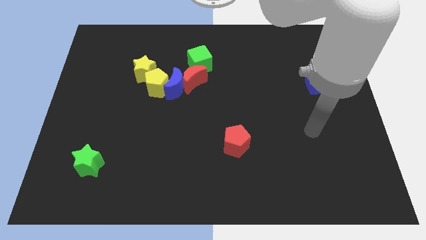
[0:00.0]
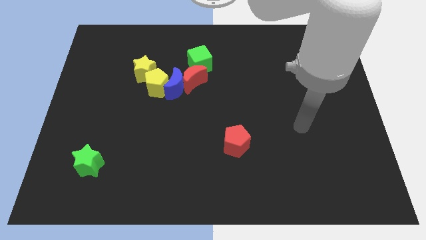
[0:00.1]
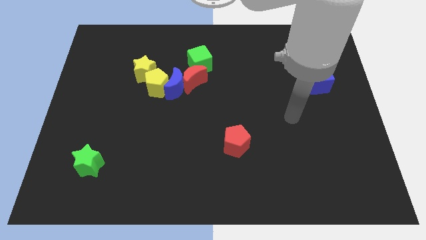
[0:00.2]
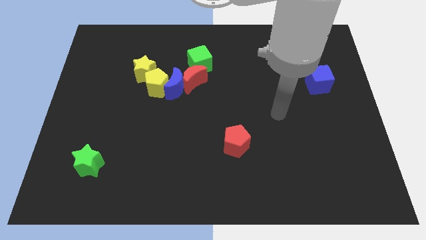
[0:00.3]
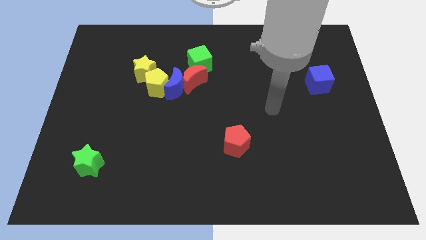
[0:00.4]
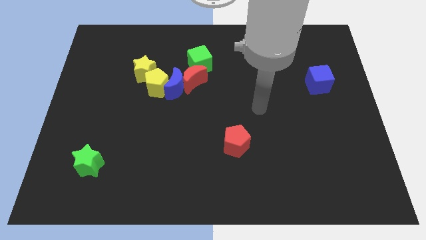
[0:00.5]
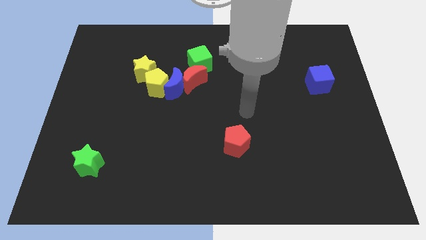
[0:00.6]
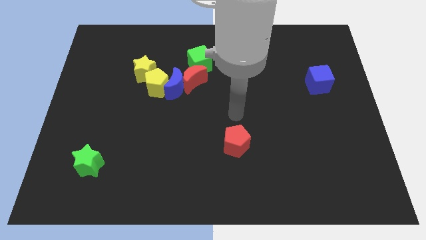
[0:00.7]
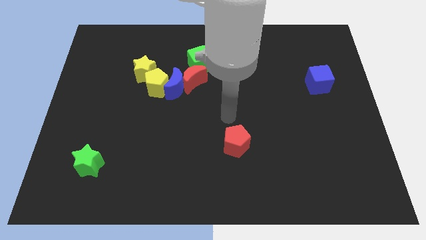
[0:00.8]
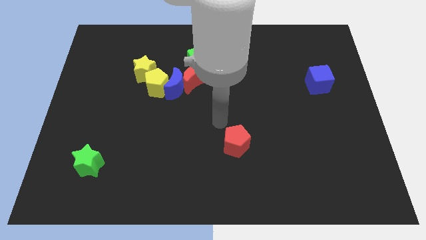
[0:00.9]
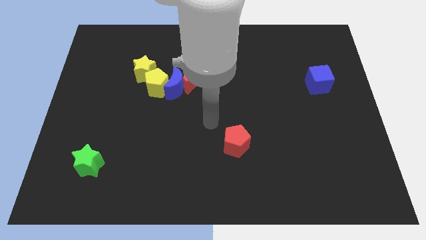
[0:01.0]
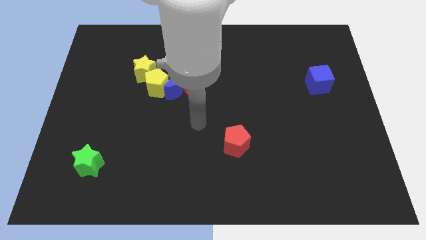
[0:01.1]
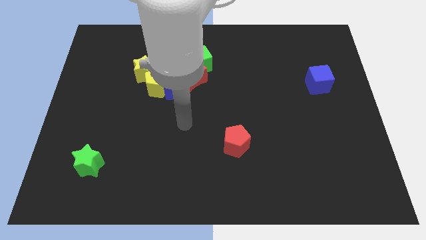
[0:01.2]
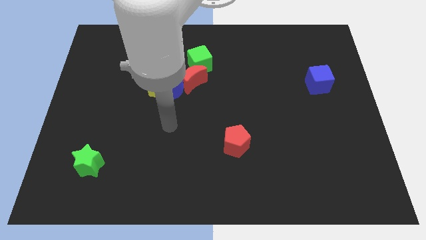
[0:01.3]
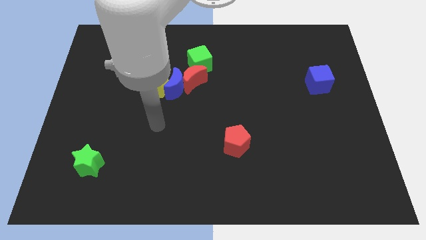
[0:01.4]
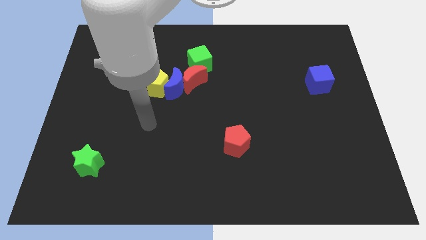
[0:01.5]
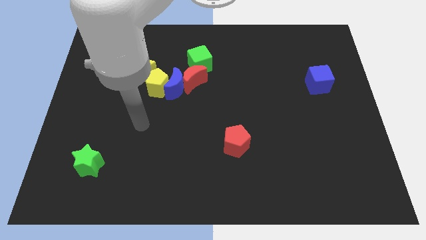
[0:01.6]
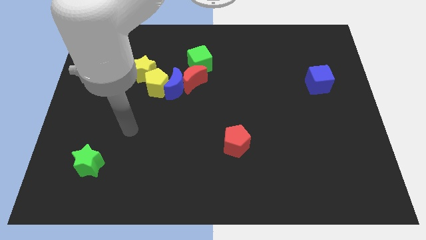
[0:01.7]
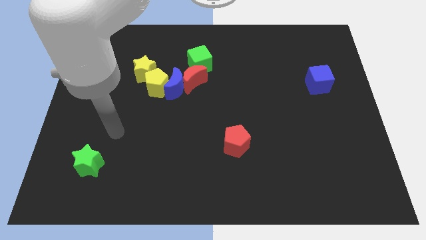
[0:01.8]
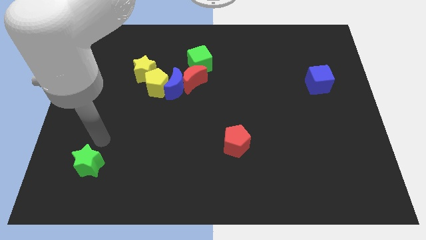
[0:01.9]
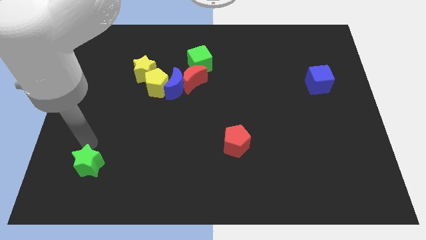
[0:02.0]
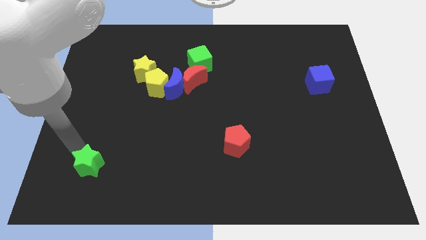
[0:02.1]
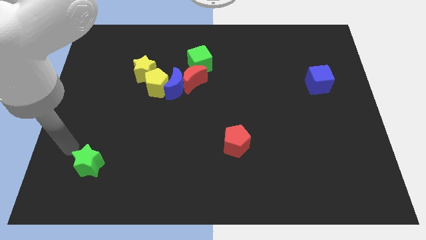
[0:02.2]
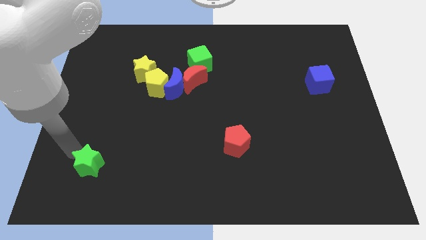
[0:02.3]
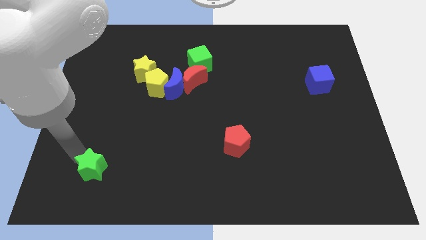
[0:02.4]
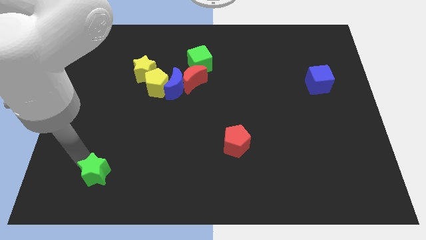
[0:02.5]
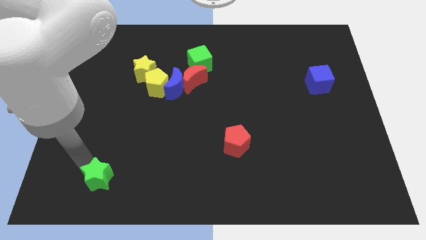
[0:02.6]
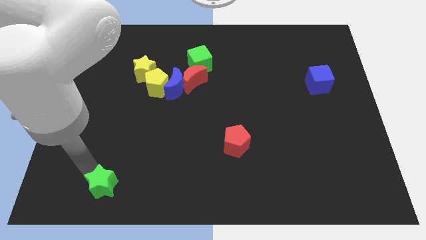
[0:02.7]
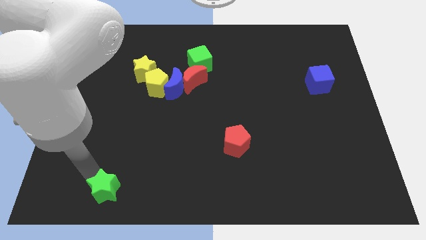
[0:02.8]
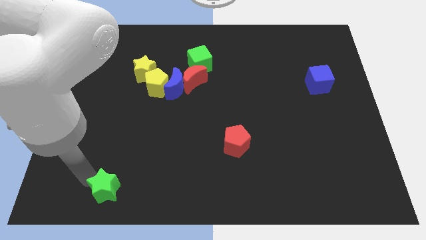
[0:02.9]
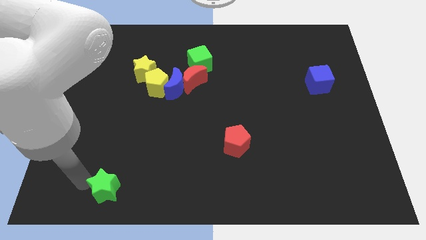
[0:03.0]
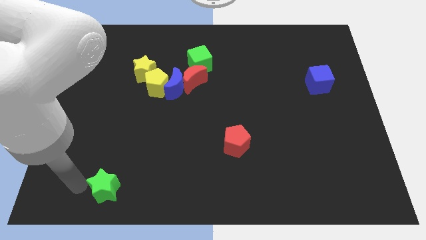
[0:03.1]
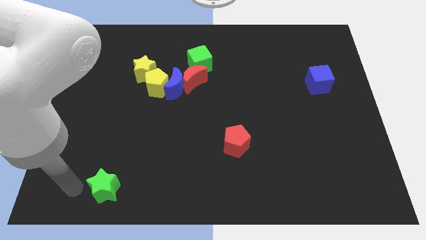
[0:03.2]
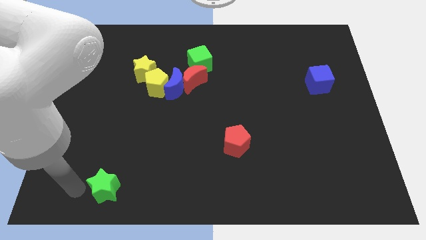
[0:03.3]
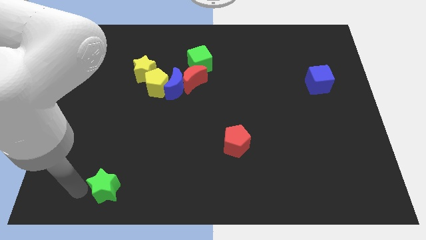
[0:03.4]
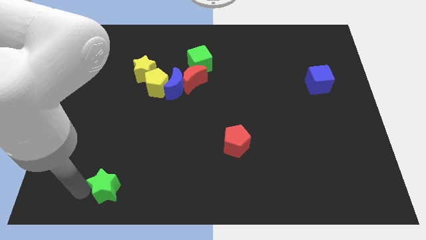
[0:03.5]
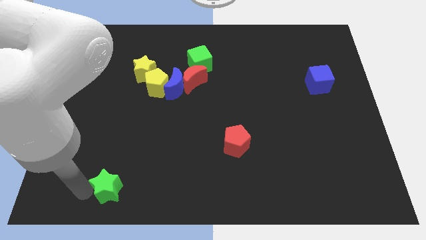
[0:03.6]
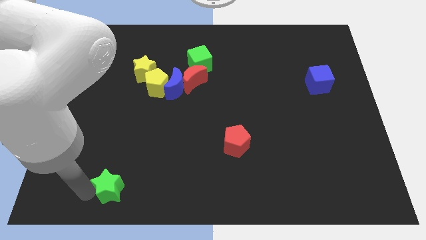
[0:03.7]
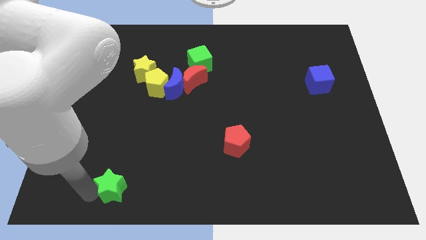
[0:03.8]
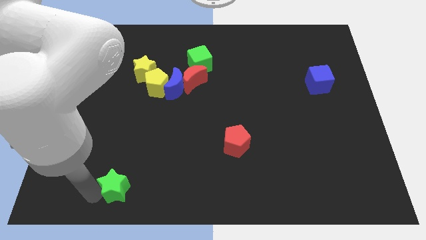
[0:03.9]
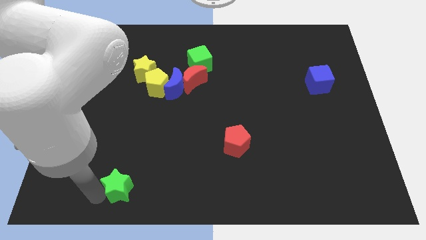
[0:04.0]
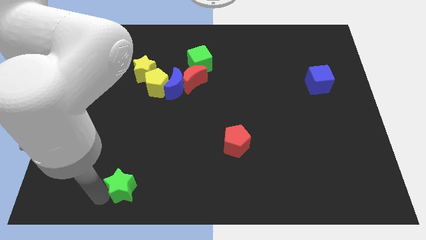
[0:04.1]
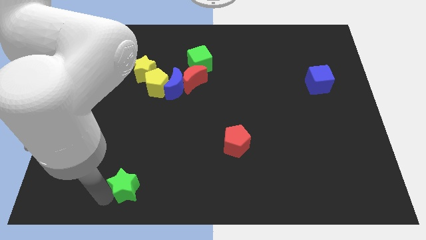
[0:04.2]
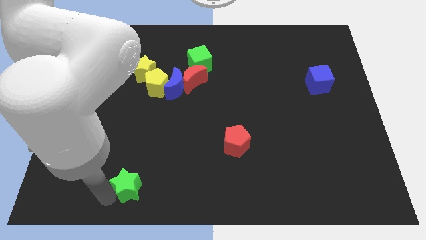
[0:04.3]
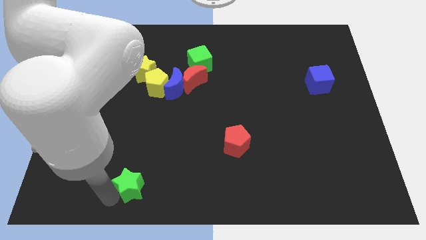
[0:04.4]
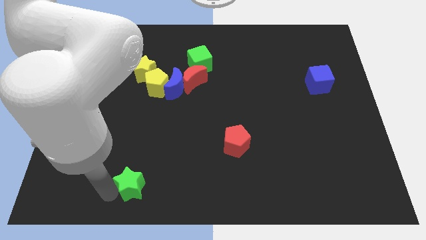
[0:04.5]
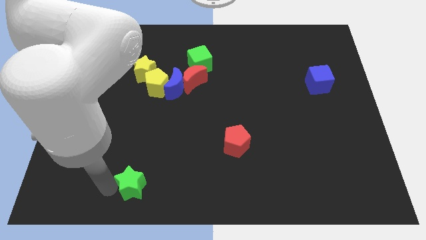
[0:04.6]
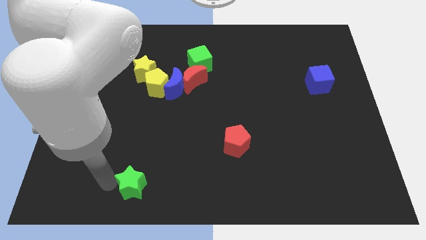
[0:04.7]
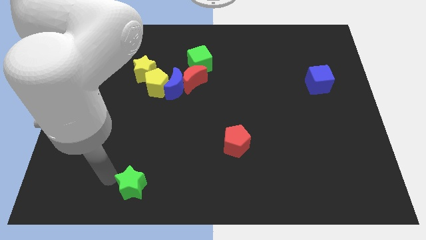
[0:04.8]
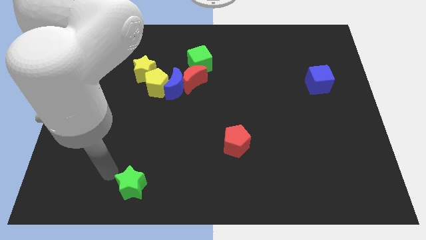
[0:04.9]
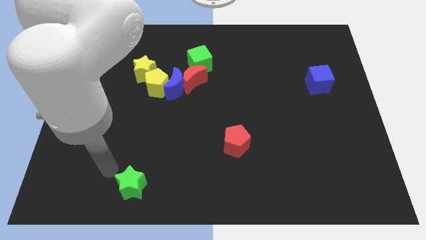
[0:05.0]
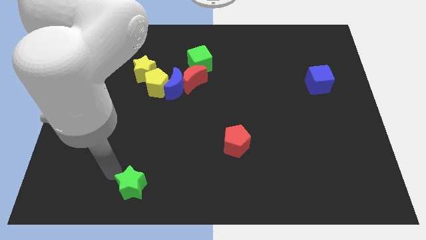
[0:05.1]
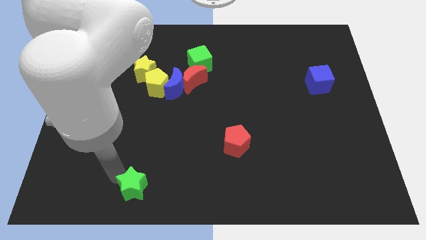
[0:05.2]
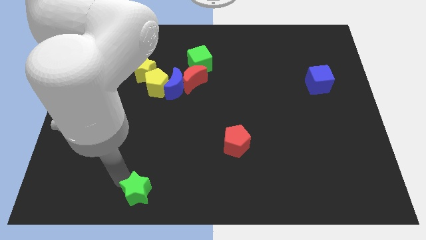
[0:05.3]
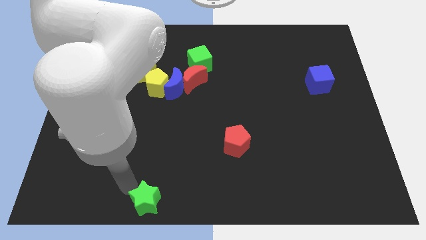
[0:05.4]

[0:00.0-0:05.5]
slide the green star to the bottom side

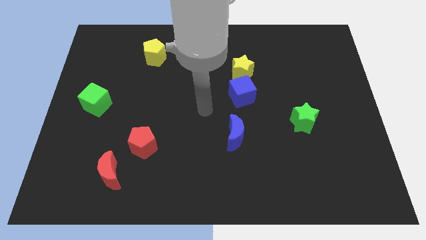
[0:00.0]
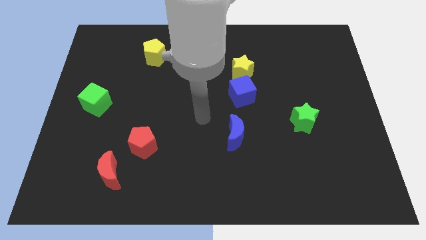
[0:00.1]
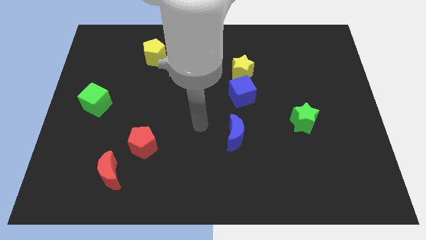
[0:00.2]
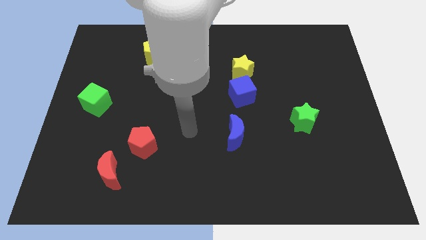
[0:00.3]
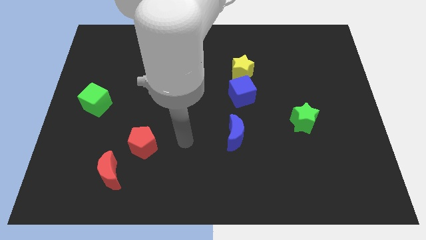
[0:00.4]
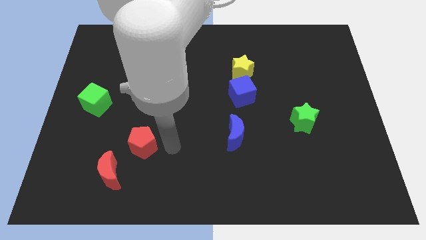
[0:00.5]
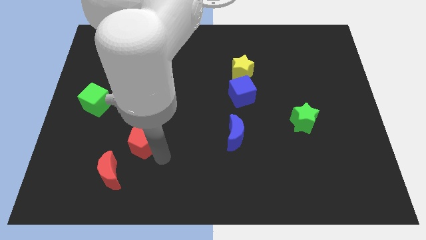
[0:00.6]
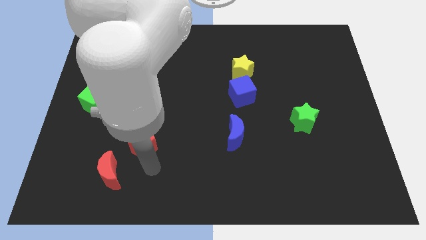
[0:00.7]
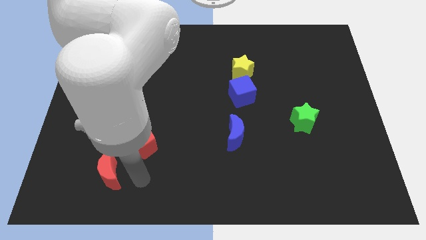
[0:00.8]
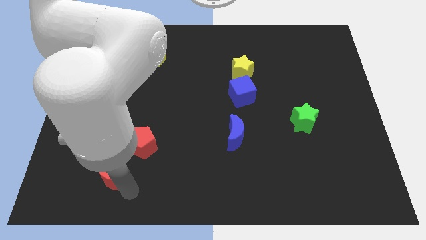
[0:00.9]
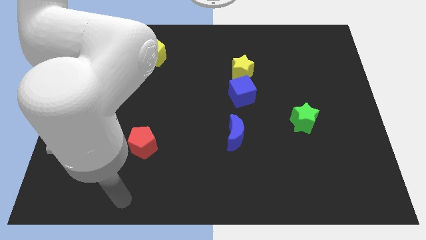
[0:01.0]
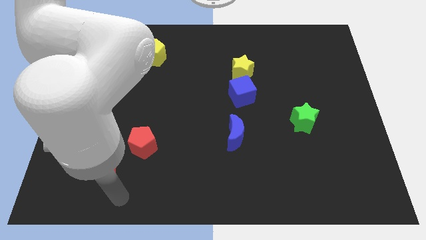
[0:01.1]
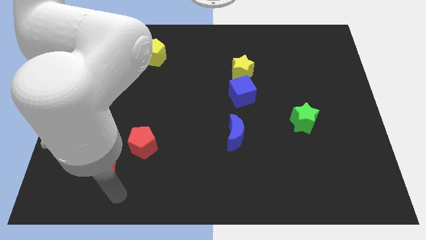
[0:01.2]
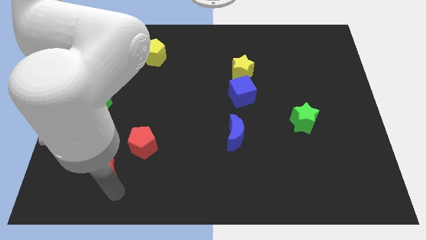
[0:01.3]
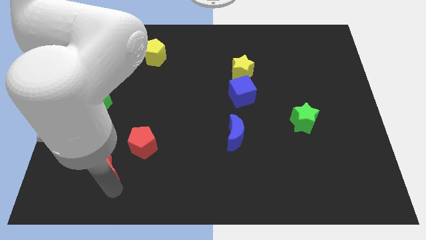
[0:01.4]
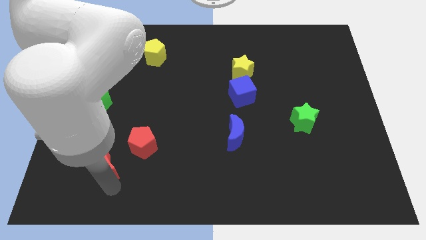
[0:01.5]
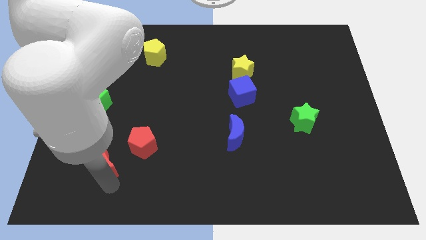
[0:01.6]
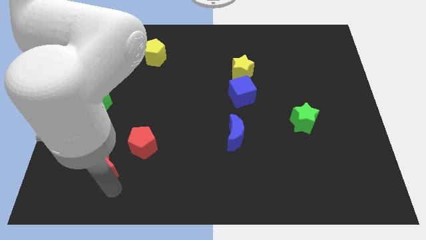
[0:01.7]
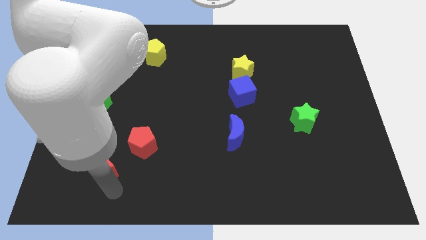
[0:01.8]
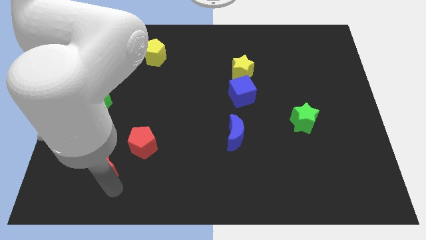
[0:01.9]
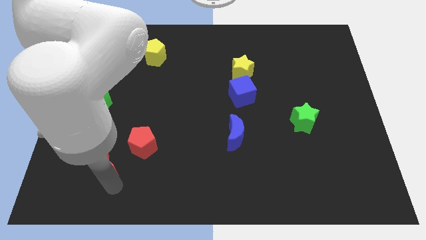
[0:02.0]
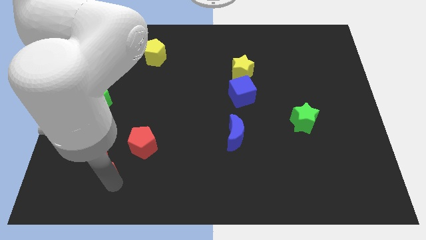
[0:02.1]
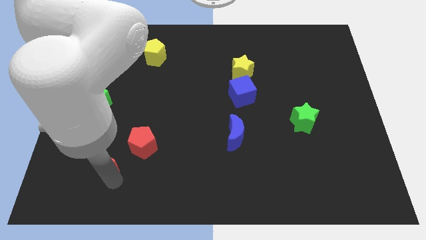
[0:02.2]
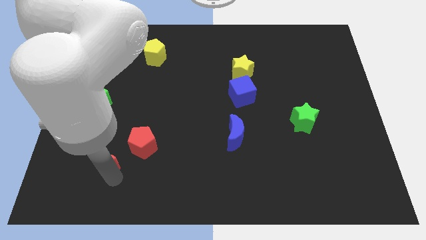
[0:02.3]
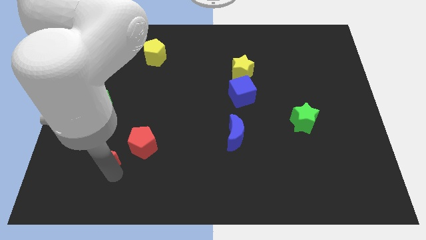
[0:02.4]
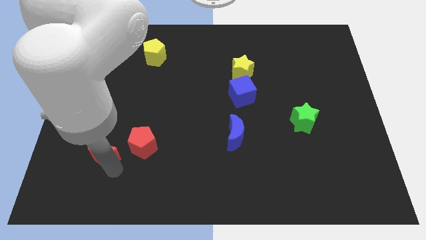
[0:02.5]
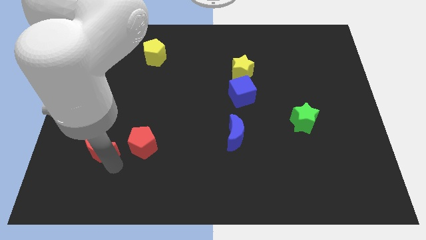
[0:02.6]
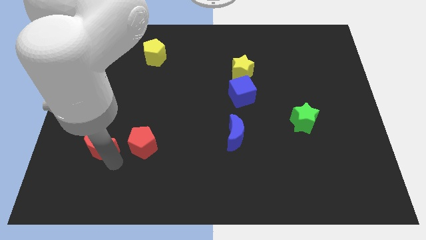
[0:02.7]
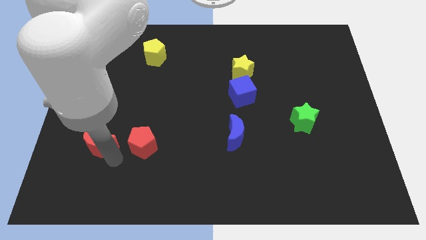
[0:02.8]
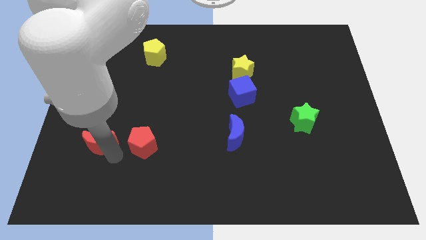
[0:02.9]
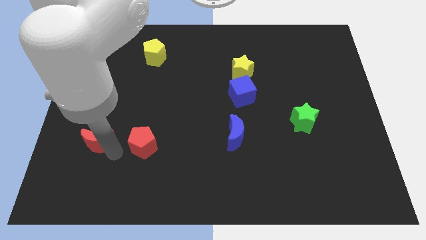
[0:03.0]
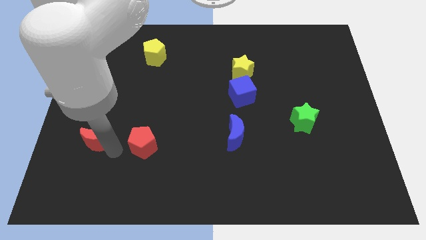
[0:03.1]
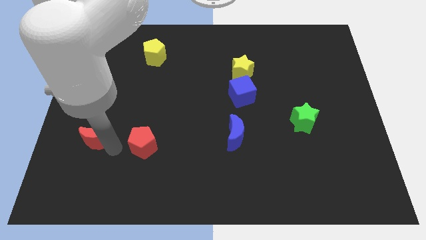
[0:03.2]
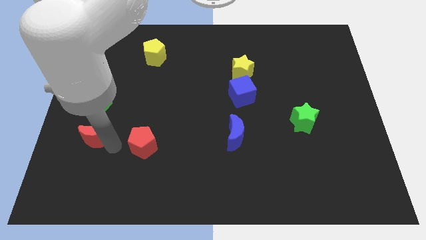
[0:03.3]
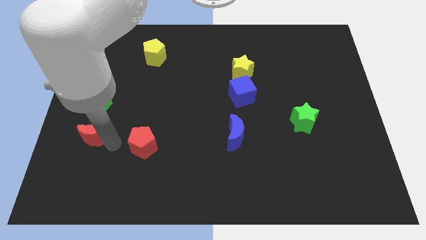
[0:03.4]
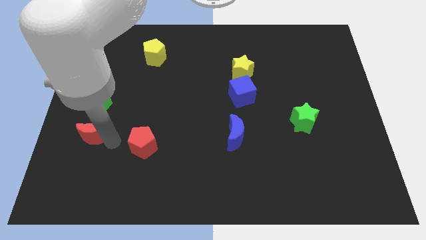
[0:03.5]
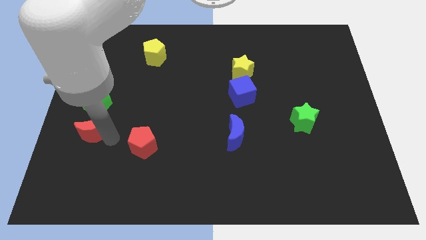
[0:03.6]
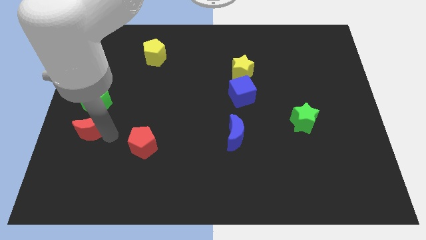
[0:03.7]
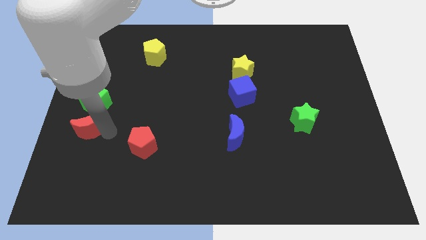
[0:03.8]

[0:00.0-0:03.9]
slide the red moon to the left side
